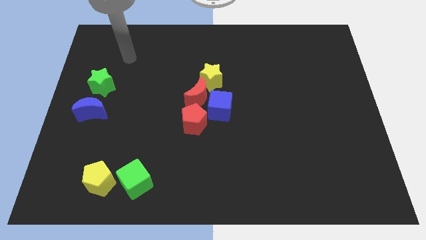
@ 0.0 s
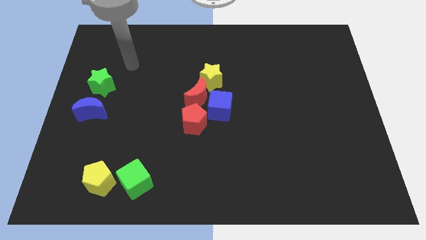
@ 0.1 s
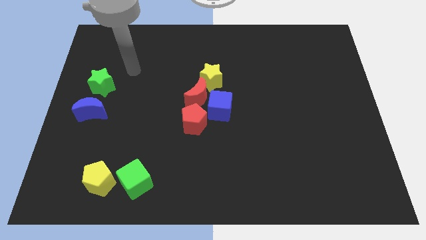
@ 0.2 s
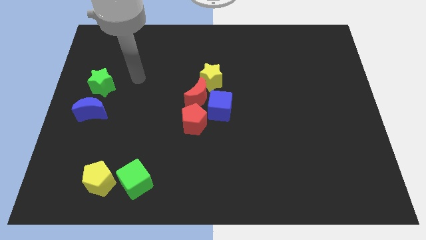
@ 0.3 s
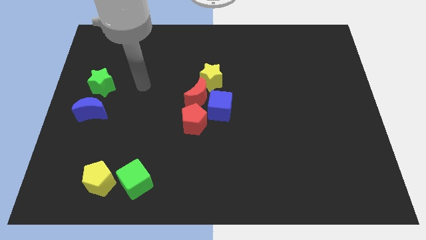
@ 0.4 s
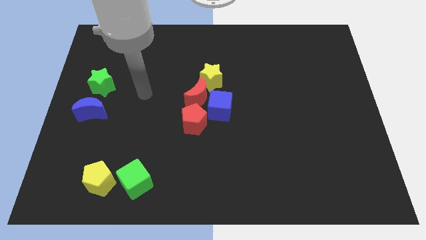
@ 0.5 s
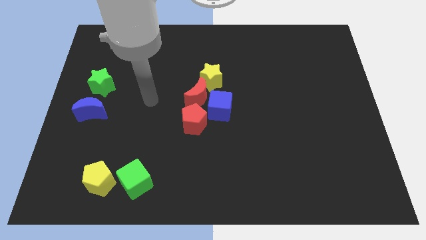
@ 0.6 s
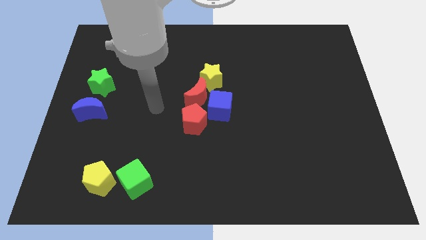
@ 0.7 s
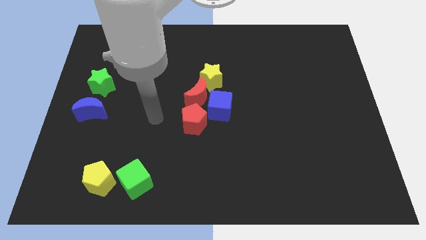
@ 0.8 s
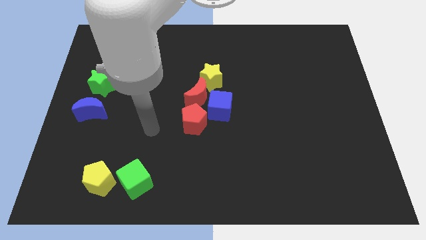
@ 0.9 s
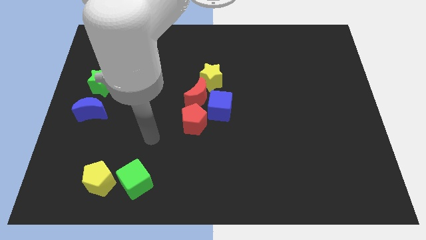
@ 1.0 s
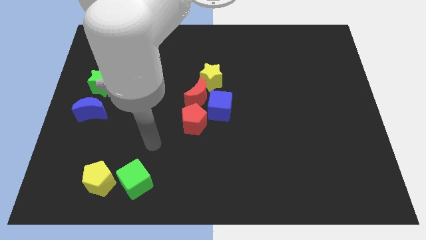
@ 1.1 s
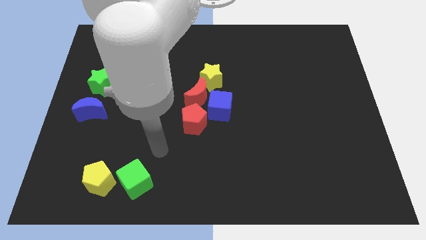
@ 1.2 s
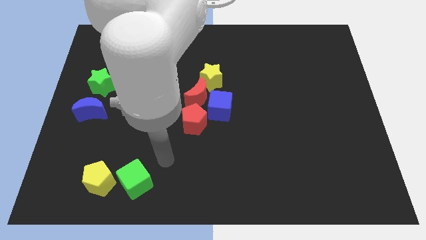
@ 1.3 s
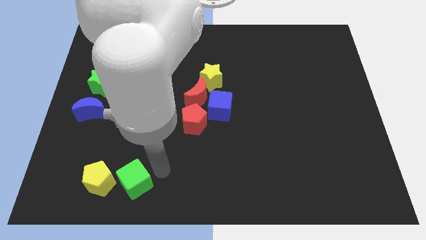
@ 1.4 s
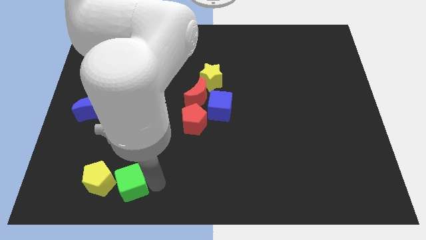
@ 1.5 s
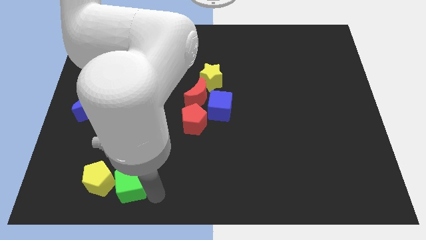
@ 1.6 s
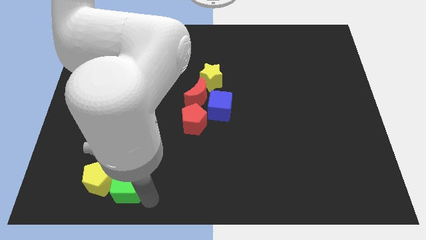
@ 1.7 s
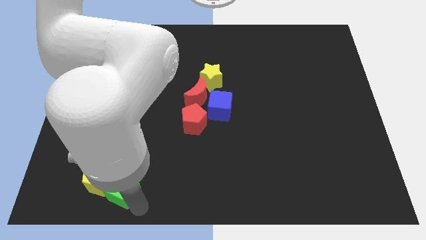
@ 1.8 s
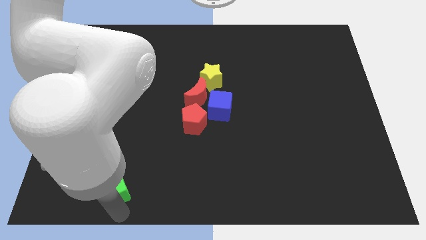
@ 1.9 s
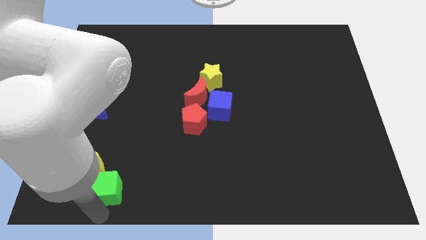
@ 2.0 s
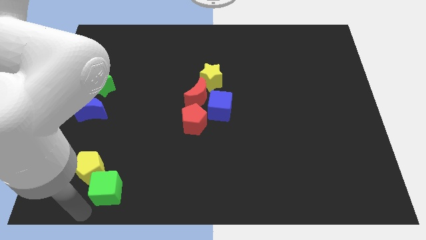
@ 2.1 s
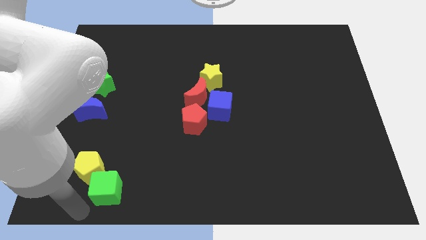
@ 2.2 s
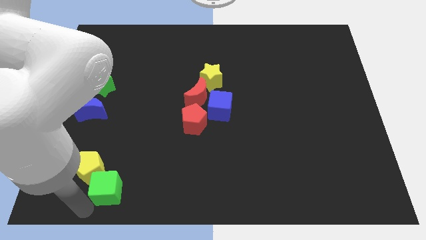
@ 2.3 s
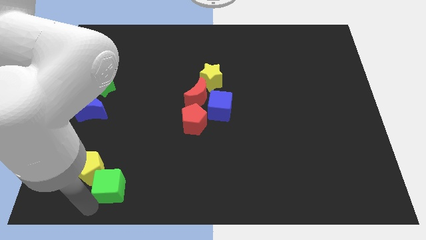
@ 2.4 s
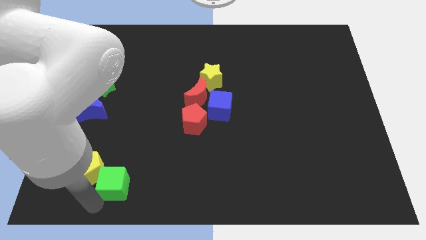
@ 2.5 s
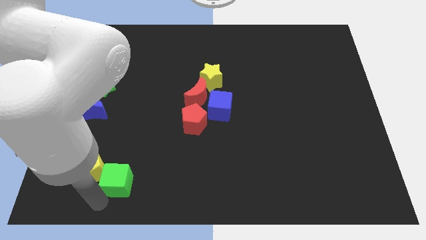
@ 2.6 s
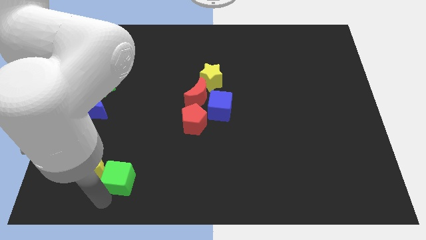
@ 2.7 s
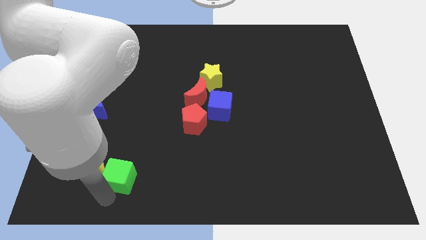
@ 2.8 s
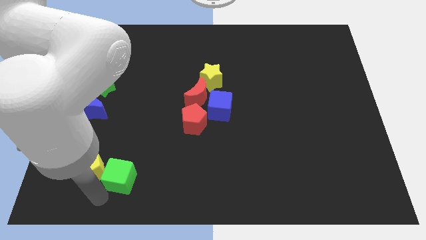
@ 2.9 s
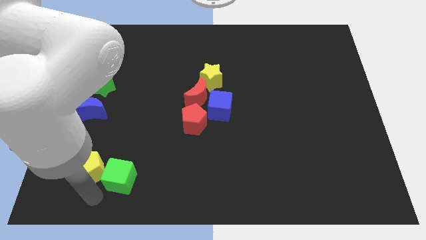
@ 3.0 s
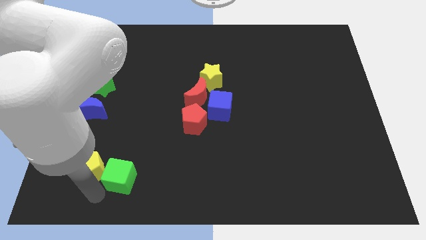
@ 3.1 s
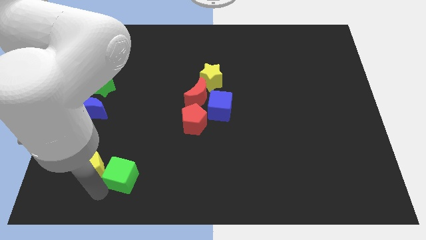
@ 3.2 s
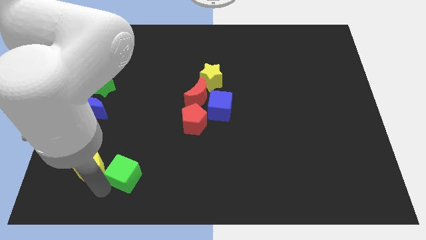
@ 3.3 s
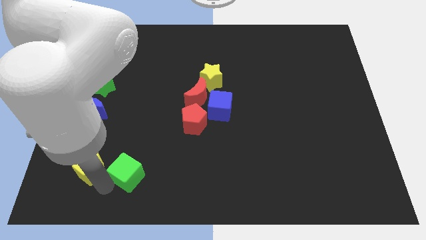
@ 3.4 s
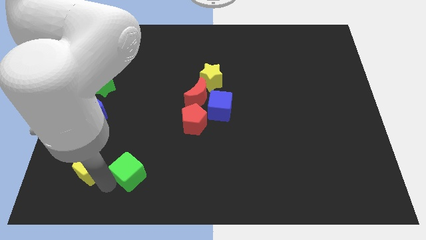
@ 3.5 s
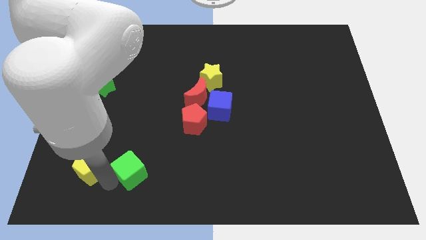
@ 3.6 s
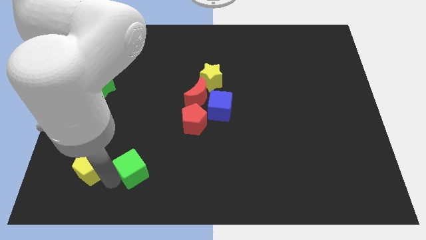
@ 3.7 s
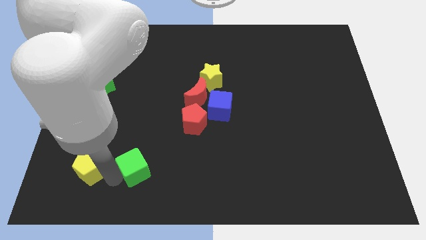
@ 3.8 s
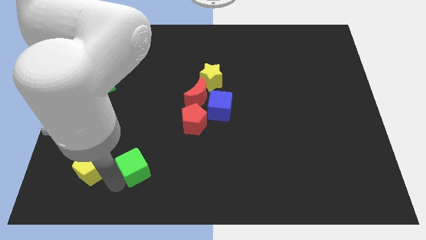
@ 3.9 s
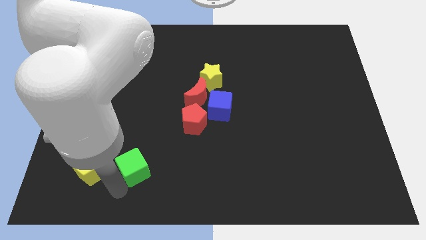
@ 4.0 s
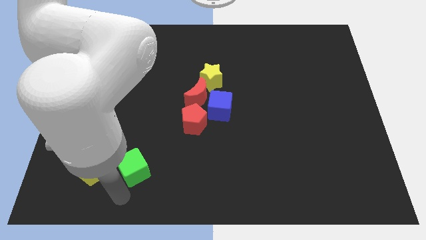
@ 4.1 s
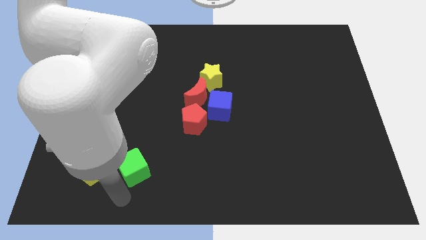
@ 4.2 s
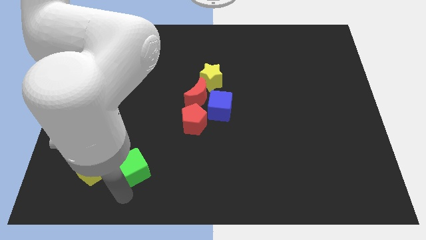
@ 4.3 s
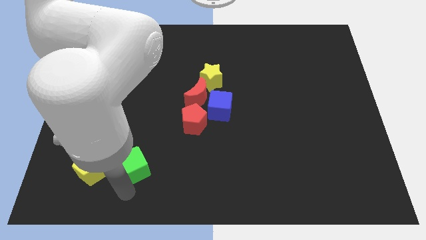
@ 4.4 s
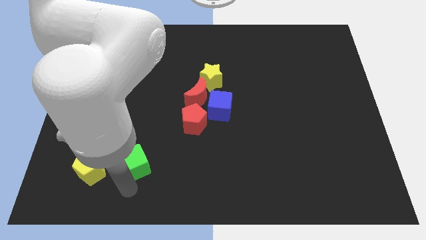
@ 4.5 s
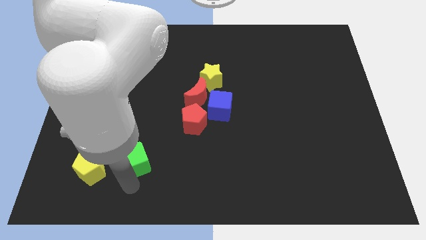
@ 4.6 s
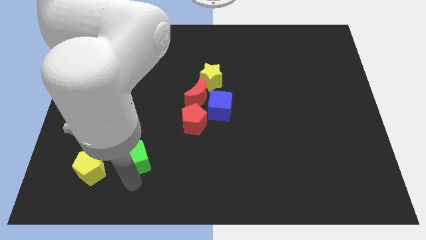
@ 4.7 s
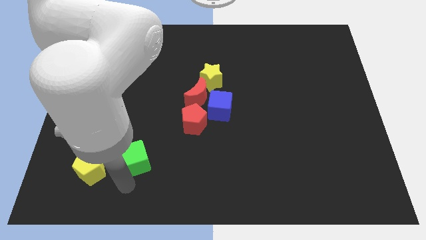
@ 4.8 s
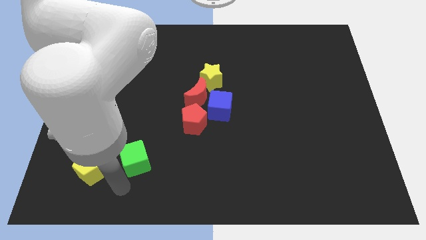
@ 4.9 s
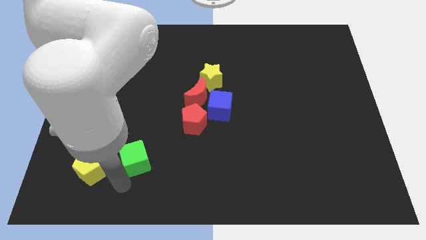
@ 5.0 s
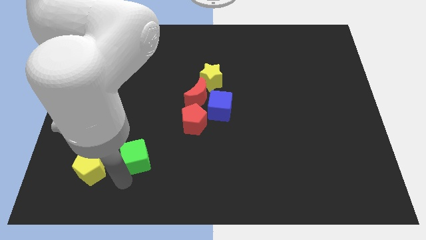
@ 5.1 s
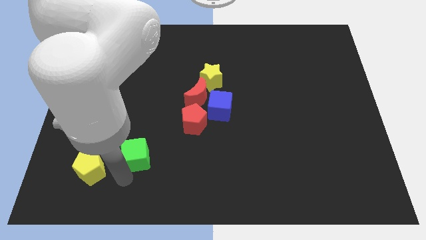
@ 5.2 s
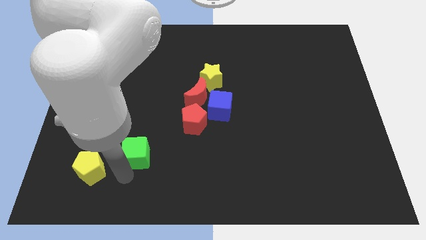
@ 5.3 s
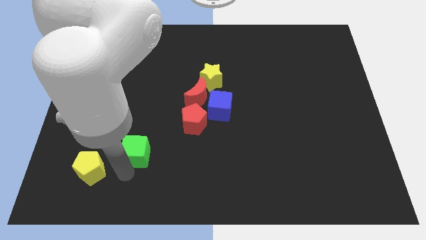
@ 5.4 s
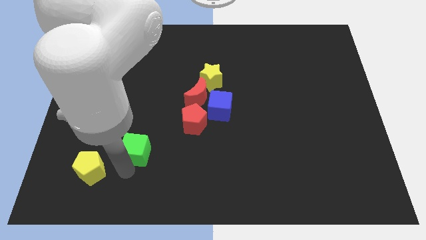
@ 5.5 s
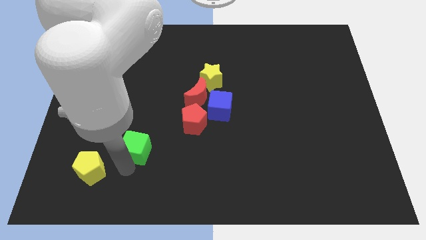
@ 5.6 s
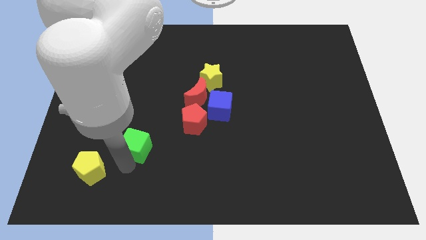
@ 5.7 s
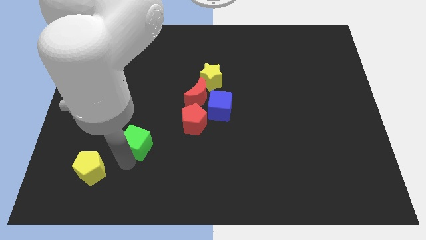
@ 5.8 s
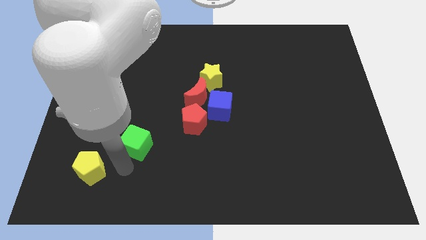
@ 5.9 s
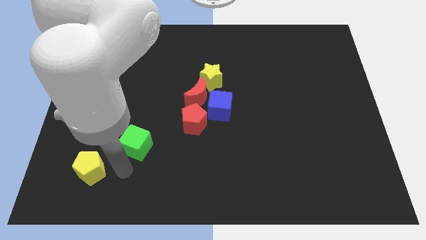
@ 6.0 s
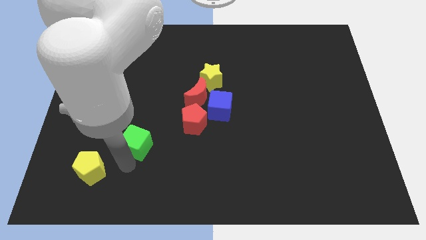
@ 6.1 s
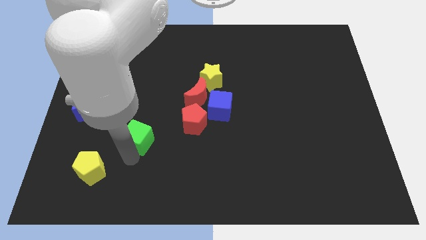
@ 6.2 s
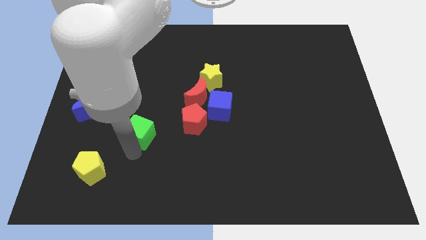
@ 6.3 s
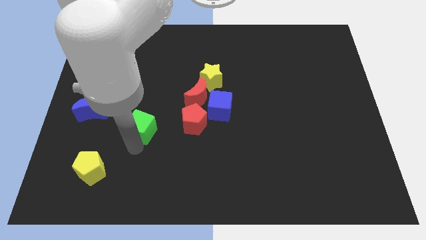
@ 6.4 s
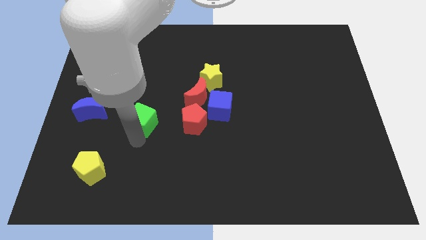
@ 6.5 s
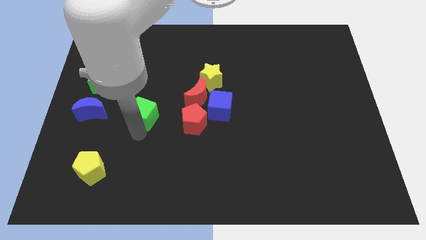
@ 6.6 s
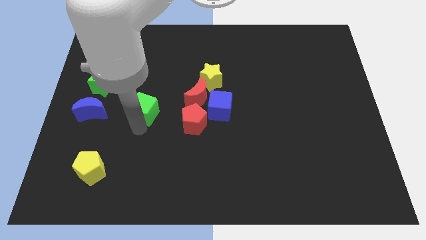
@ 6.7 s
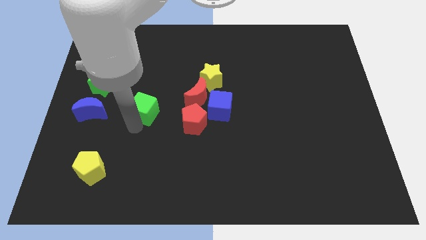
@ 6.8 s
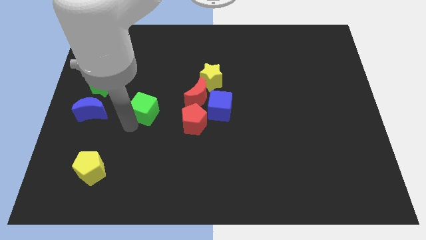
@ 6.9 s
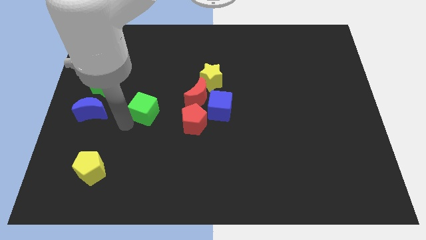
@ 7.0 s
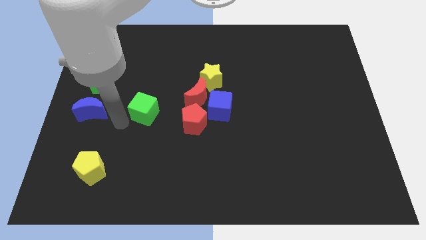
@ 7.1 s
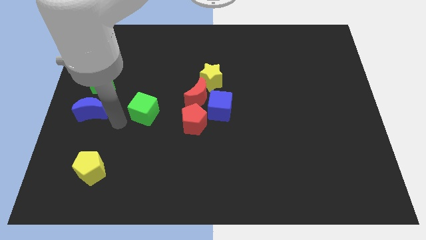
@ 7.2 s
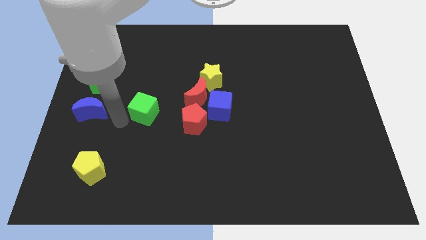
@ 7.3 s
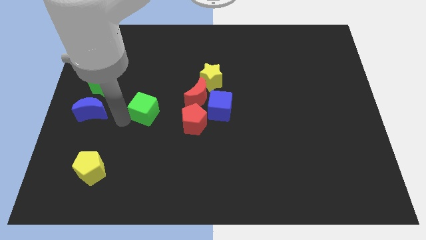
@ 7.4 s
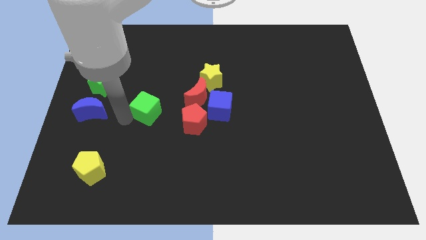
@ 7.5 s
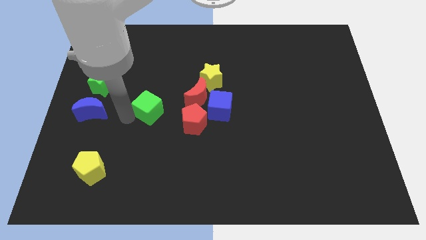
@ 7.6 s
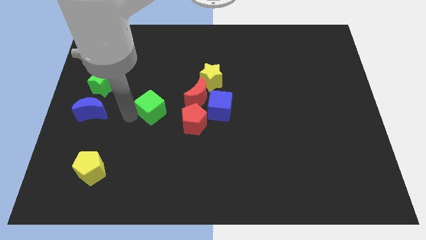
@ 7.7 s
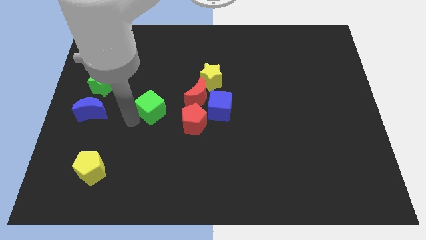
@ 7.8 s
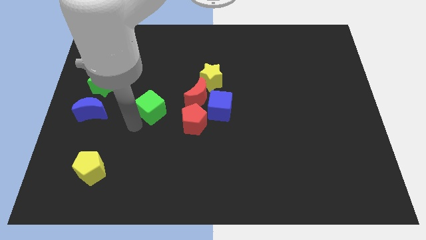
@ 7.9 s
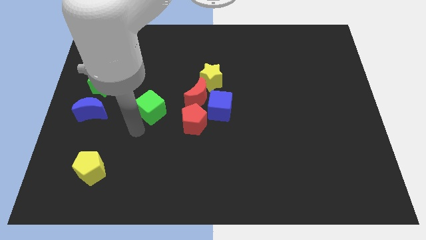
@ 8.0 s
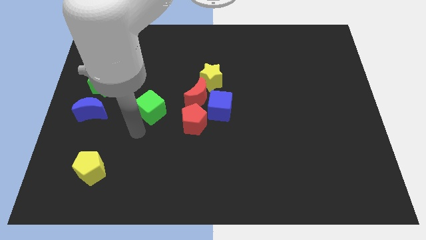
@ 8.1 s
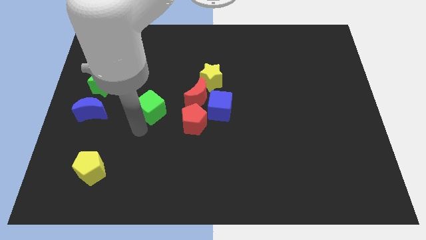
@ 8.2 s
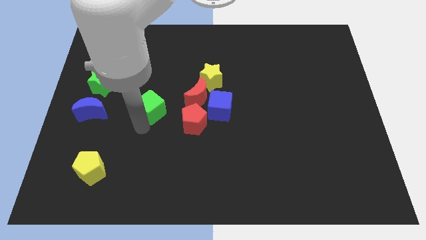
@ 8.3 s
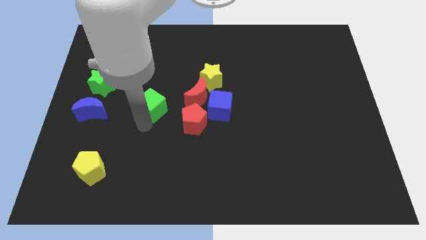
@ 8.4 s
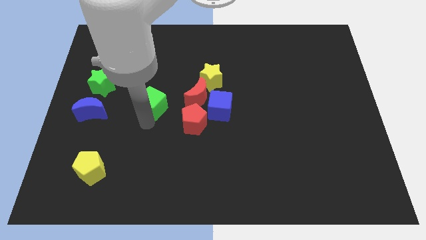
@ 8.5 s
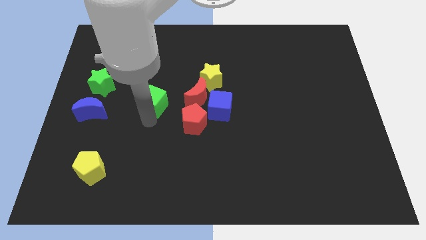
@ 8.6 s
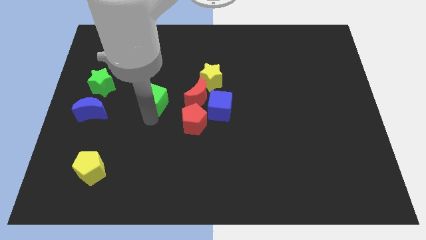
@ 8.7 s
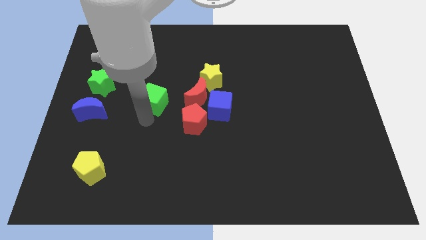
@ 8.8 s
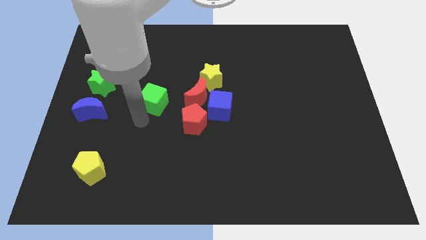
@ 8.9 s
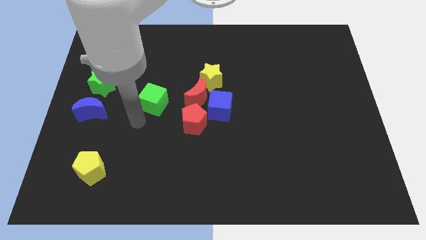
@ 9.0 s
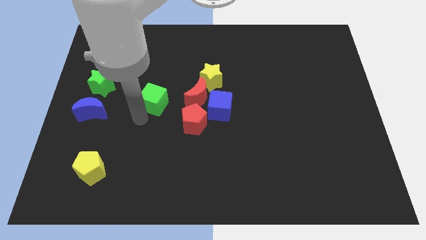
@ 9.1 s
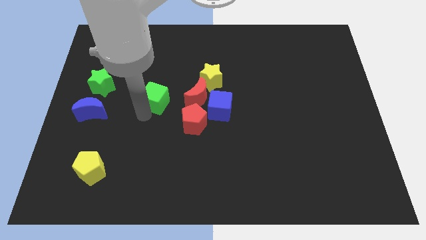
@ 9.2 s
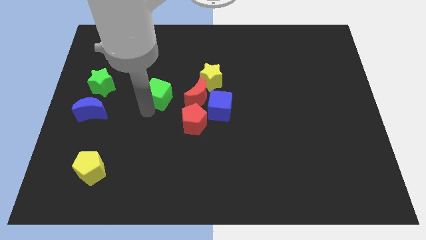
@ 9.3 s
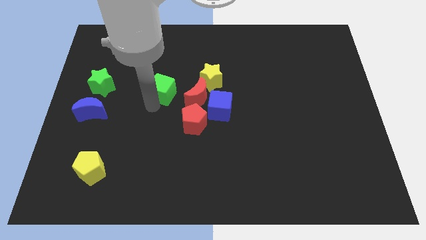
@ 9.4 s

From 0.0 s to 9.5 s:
move the green cube just left of the yellow star
